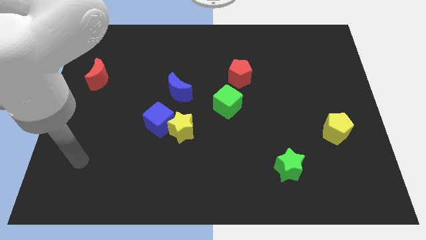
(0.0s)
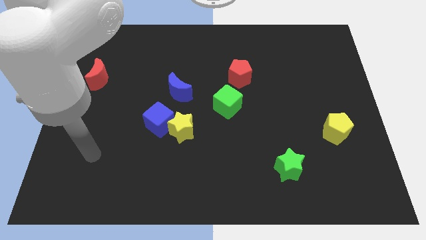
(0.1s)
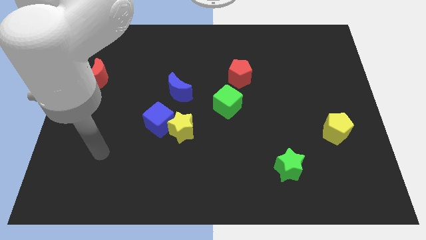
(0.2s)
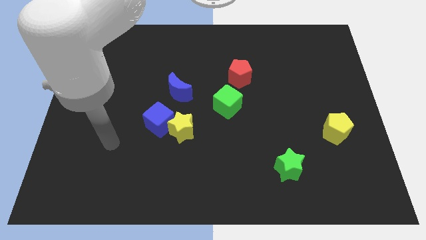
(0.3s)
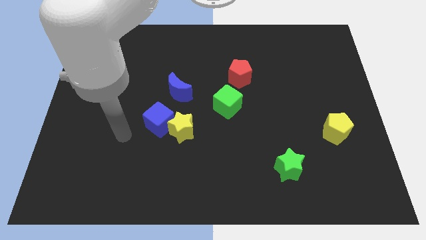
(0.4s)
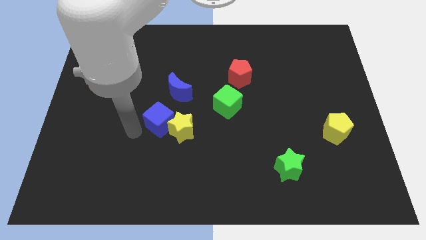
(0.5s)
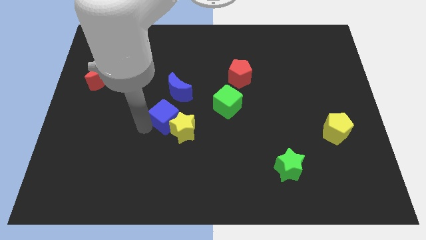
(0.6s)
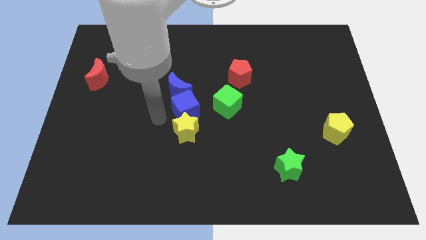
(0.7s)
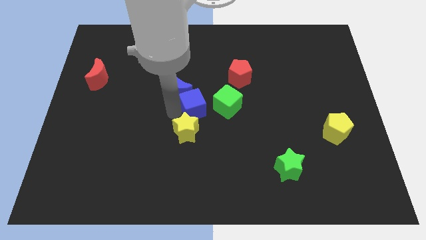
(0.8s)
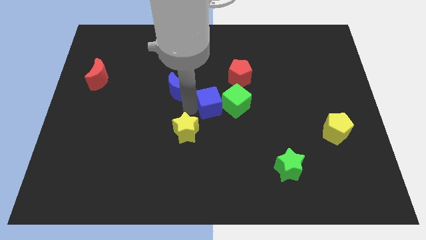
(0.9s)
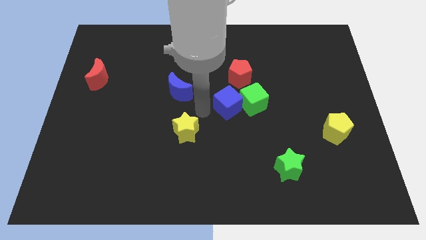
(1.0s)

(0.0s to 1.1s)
separate the yellow star from the blue cube

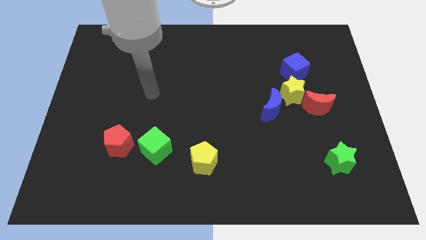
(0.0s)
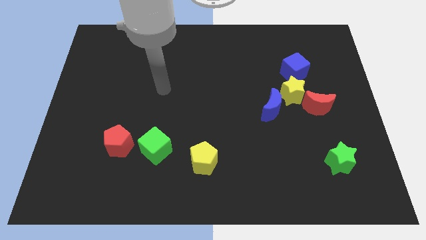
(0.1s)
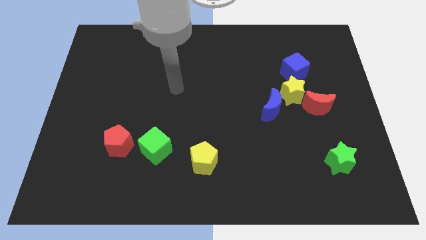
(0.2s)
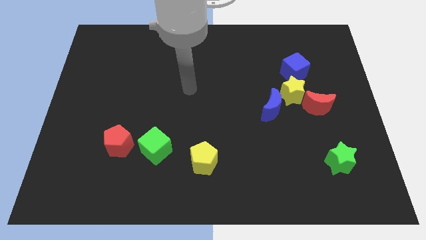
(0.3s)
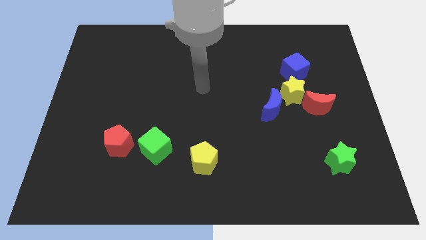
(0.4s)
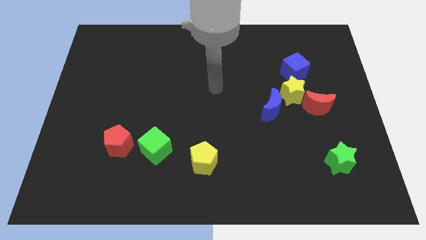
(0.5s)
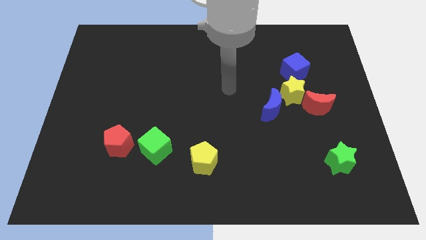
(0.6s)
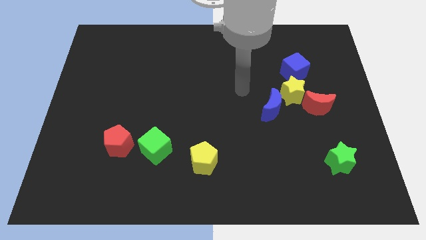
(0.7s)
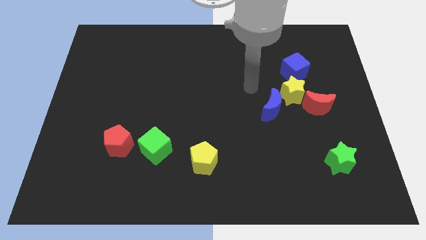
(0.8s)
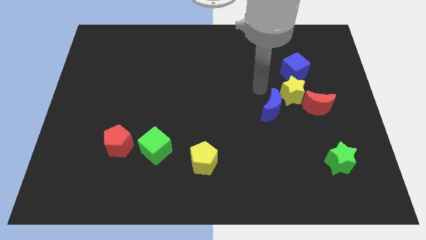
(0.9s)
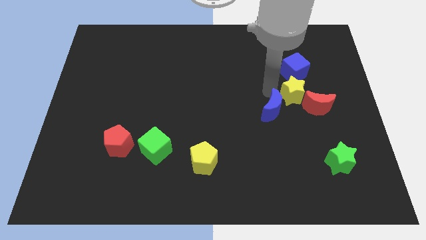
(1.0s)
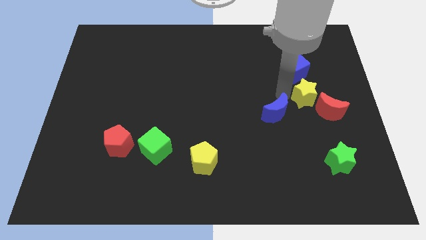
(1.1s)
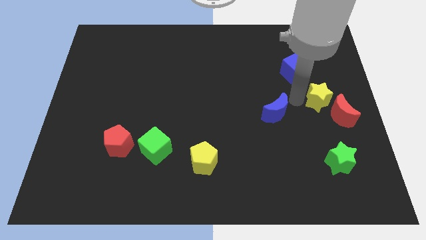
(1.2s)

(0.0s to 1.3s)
pull the blue moon apart from the yellow star

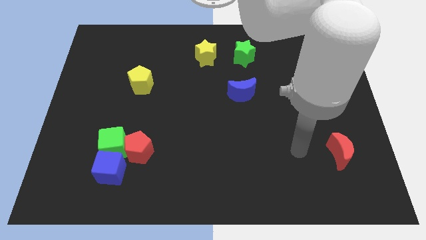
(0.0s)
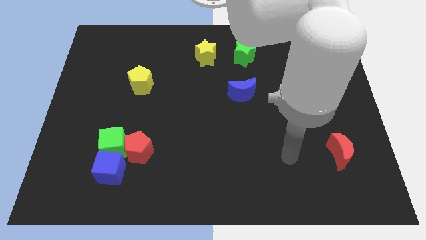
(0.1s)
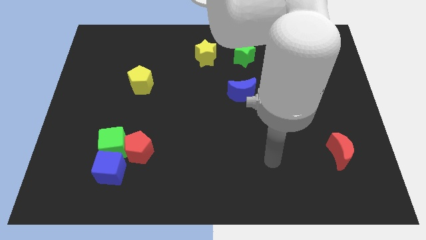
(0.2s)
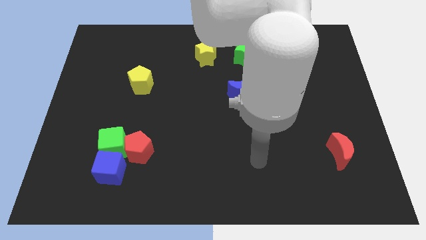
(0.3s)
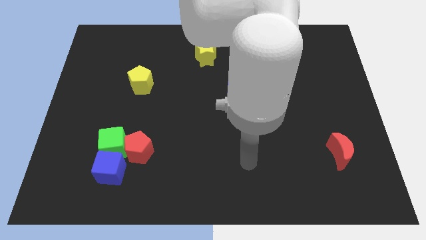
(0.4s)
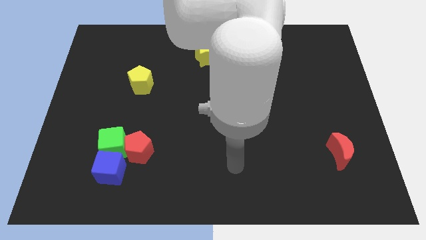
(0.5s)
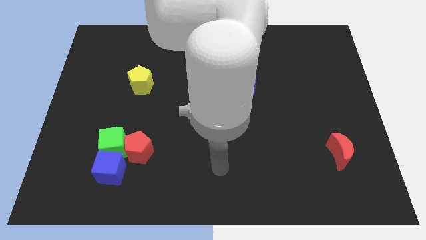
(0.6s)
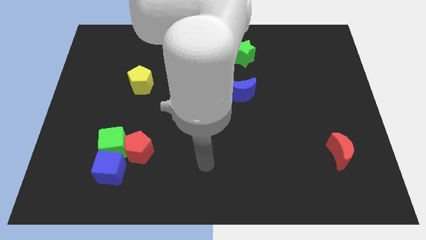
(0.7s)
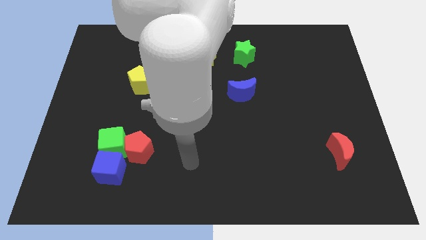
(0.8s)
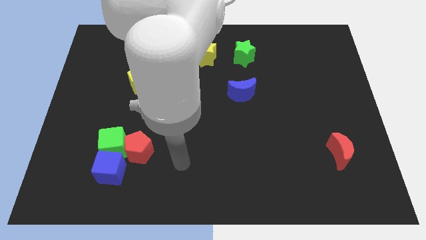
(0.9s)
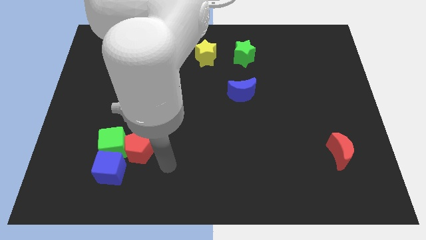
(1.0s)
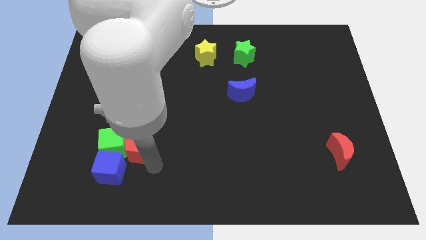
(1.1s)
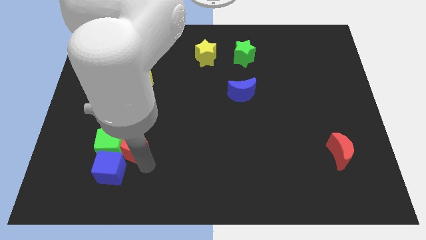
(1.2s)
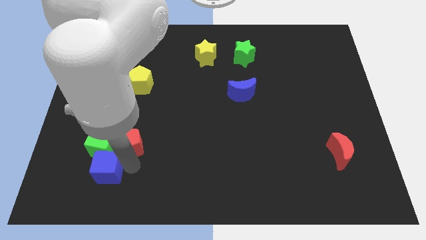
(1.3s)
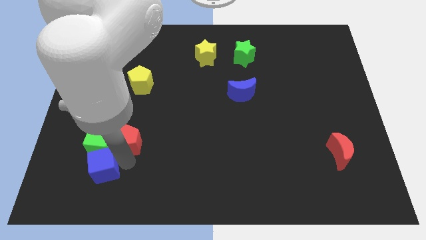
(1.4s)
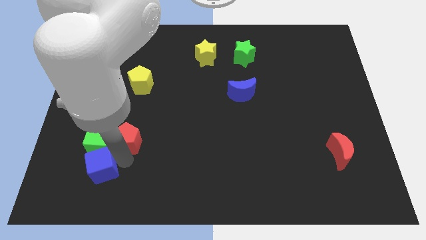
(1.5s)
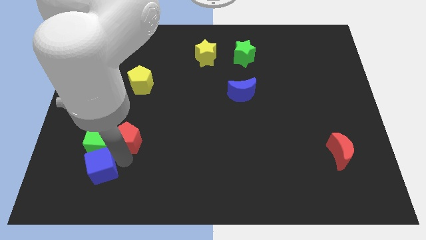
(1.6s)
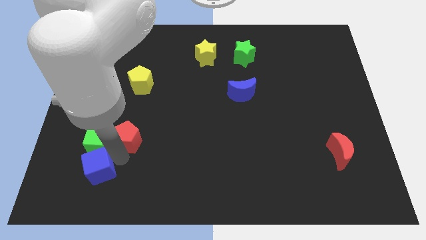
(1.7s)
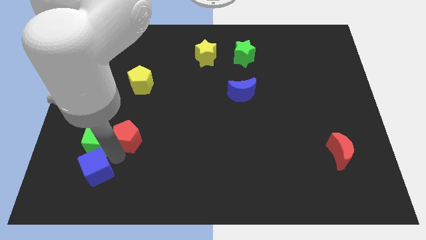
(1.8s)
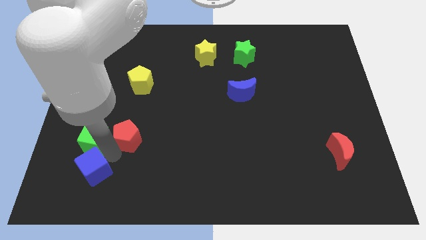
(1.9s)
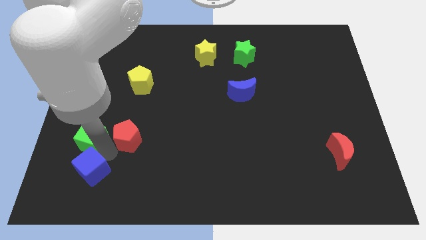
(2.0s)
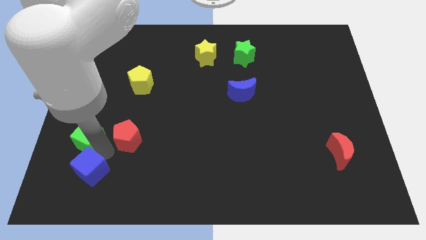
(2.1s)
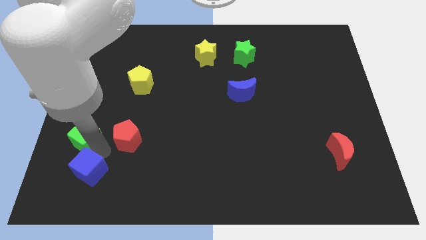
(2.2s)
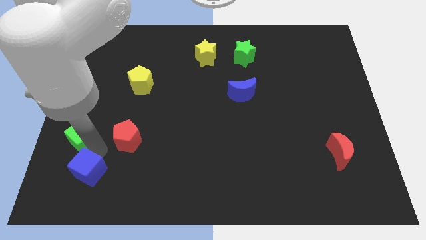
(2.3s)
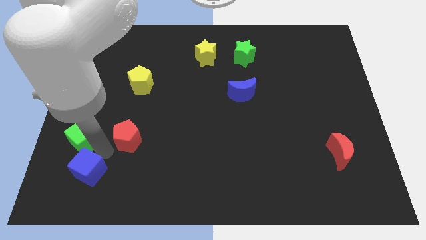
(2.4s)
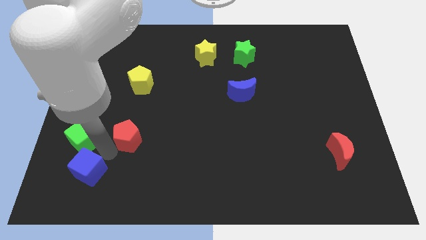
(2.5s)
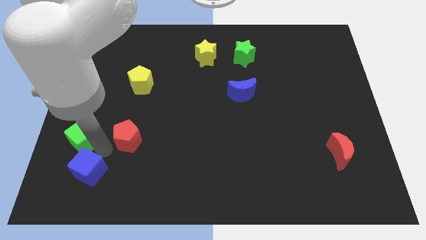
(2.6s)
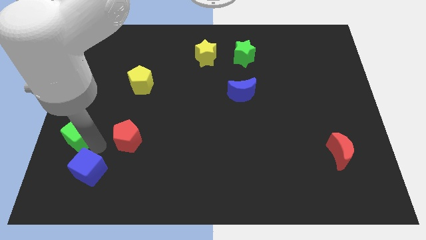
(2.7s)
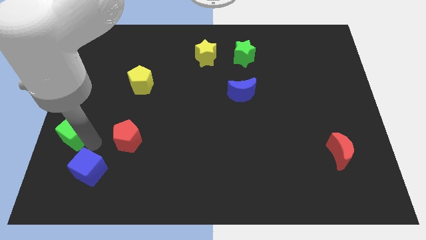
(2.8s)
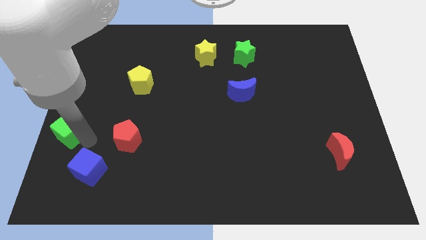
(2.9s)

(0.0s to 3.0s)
pull the green cube apart from the red pentagon and blue cube

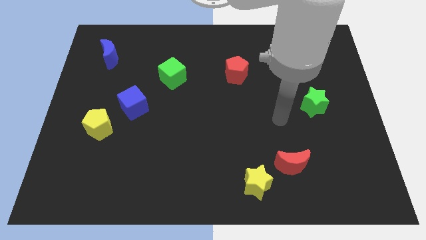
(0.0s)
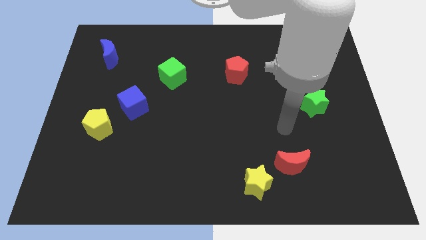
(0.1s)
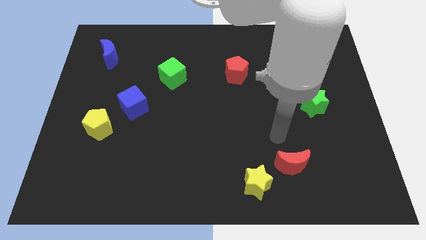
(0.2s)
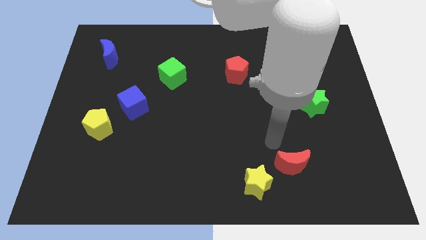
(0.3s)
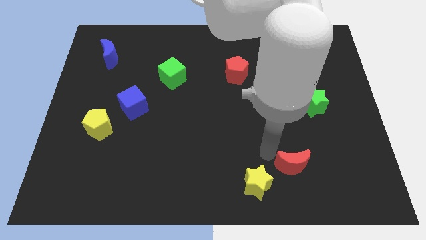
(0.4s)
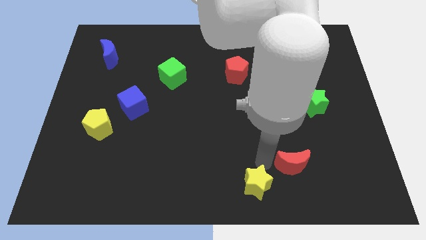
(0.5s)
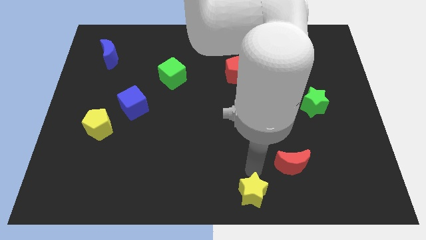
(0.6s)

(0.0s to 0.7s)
move the red moon away from the yellow star

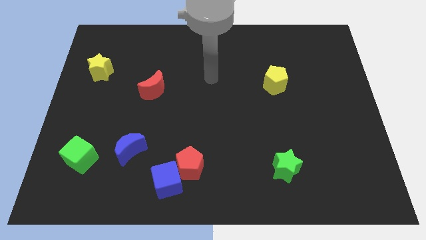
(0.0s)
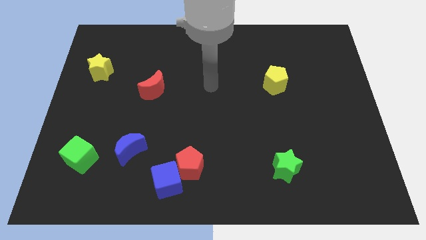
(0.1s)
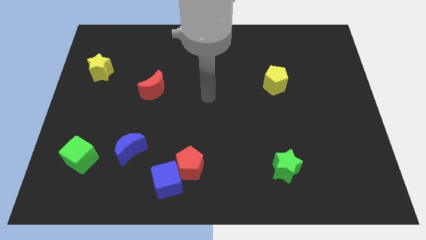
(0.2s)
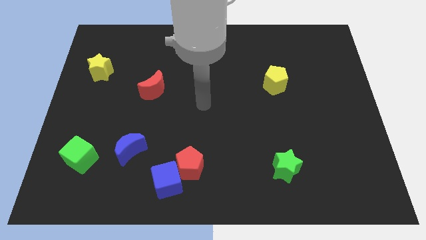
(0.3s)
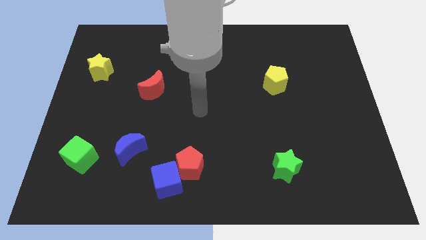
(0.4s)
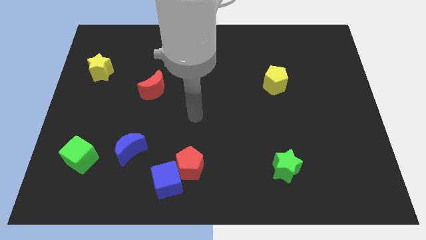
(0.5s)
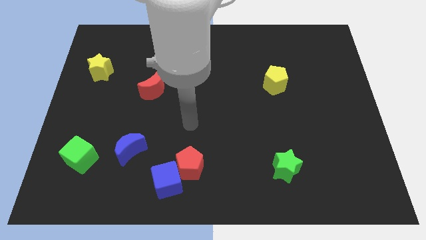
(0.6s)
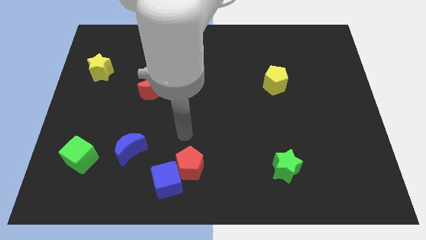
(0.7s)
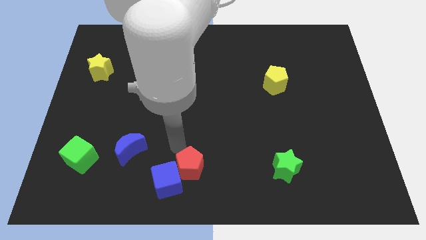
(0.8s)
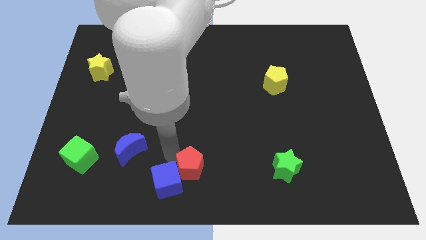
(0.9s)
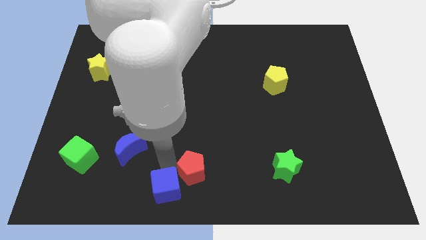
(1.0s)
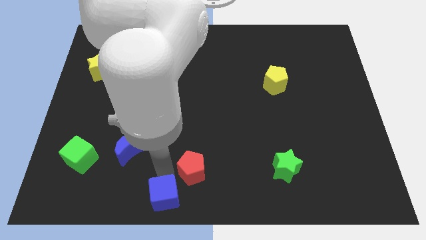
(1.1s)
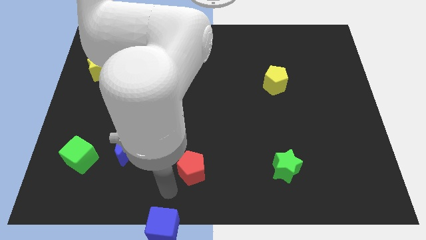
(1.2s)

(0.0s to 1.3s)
separate the red pentagon from the blue cube

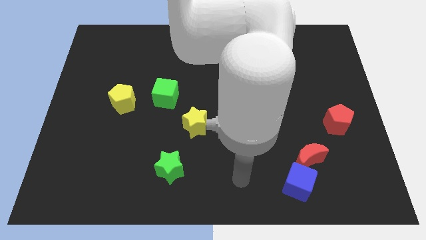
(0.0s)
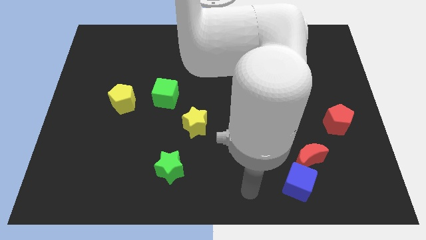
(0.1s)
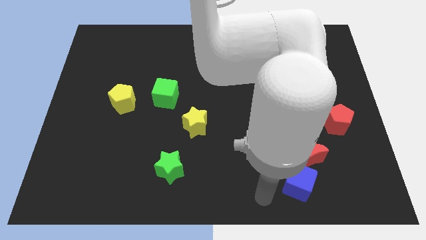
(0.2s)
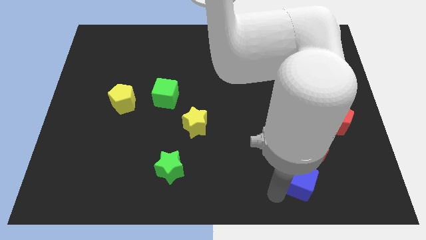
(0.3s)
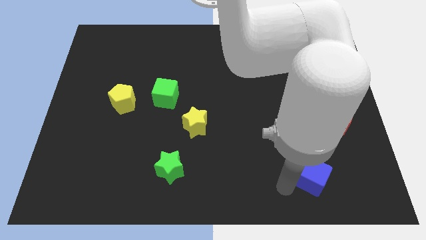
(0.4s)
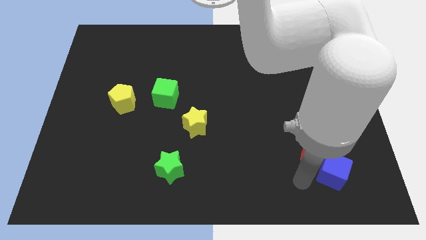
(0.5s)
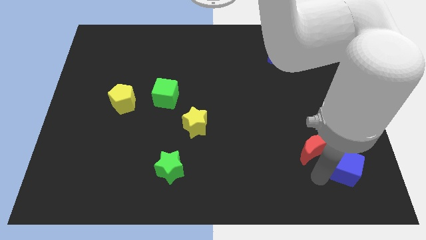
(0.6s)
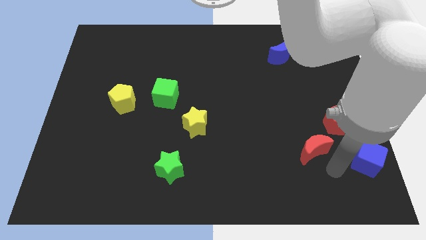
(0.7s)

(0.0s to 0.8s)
separate the red moon from the blue cube

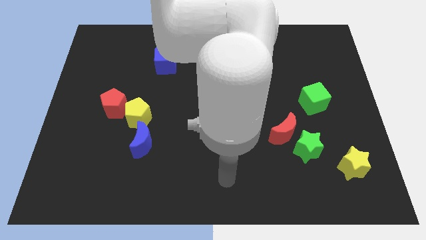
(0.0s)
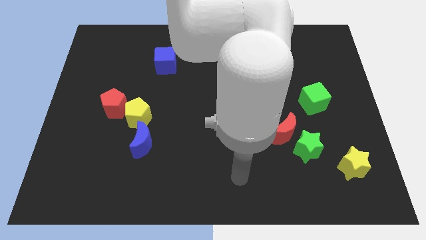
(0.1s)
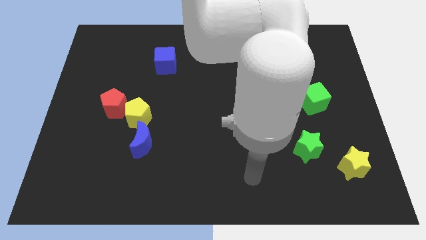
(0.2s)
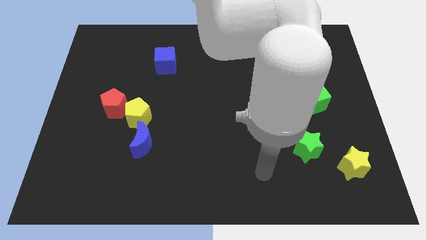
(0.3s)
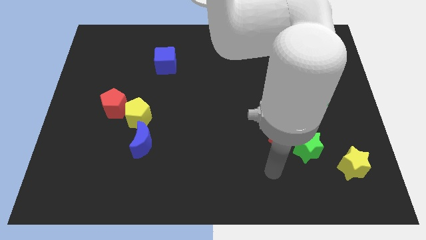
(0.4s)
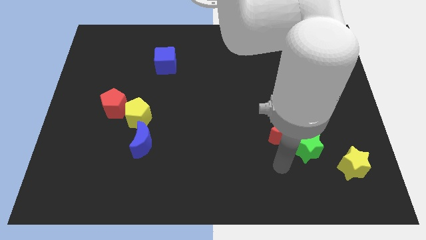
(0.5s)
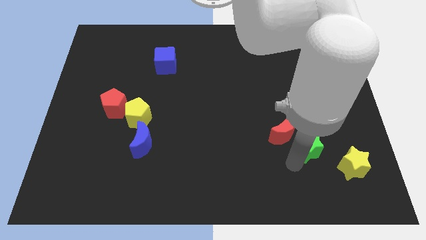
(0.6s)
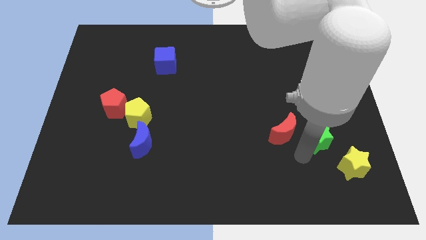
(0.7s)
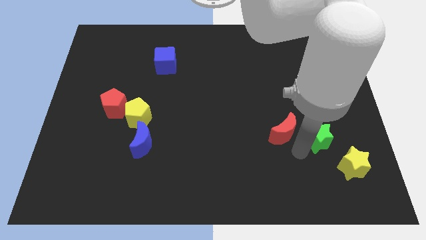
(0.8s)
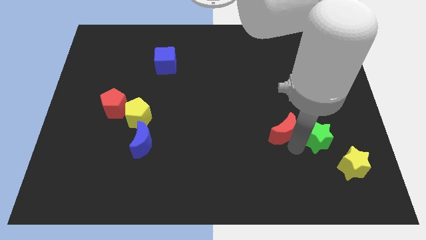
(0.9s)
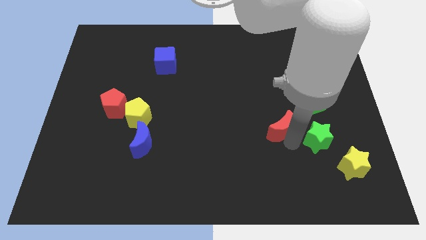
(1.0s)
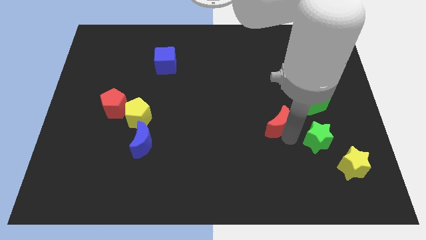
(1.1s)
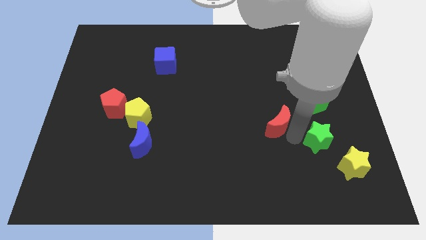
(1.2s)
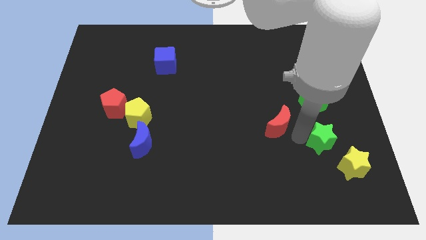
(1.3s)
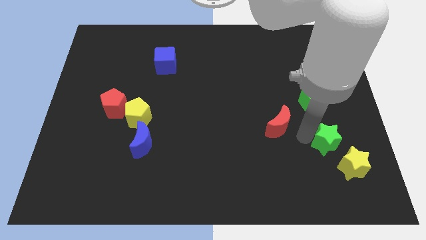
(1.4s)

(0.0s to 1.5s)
pull the red moon apart from the green star
